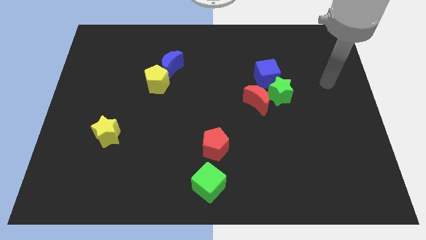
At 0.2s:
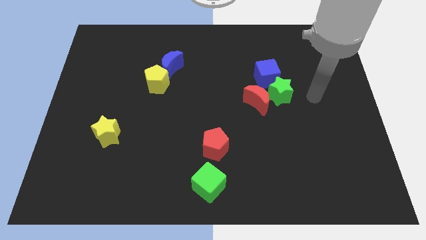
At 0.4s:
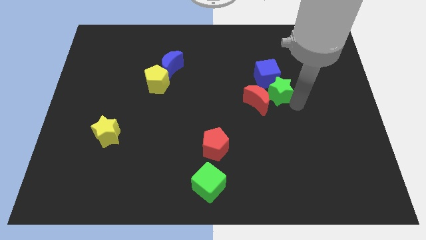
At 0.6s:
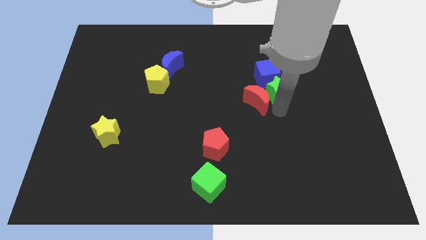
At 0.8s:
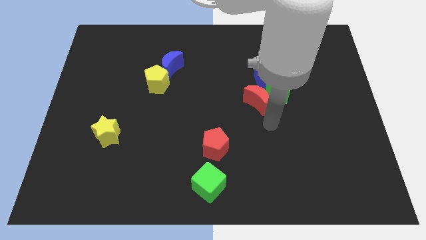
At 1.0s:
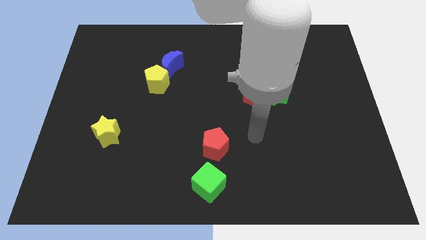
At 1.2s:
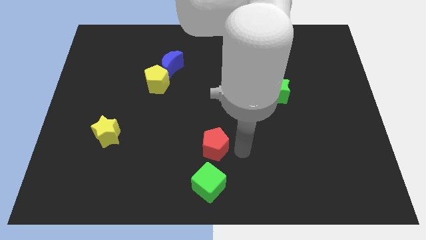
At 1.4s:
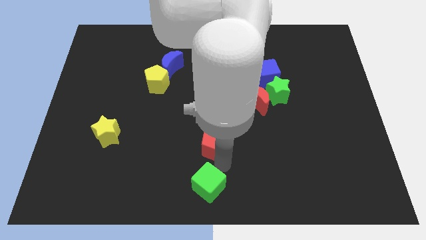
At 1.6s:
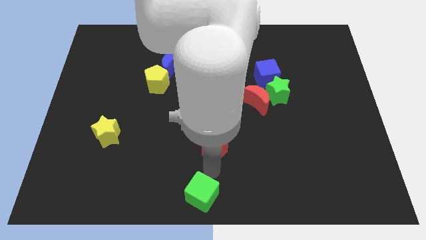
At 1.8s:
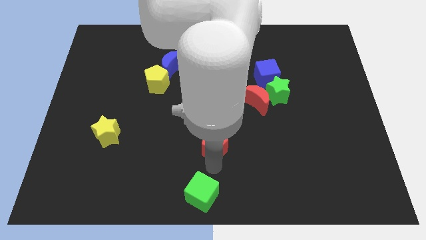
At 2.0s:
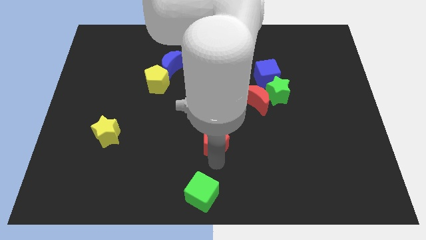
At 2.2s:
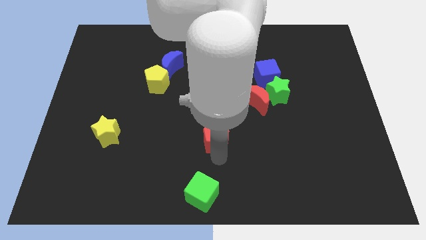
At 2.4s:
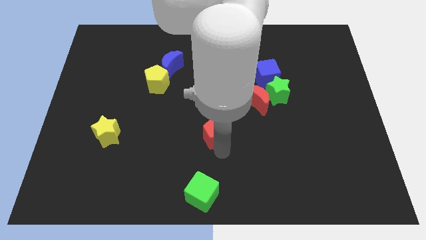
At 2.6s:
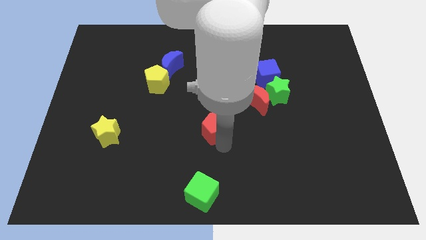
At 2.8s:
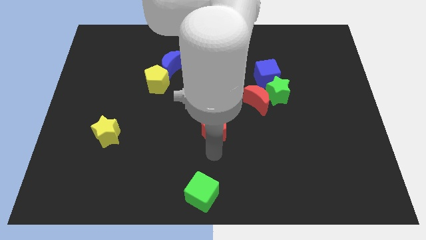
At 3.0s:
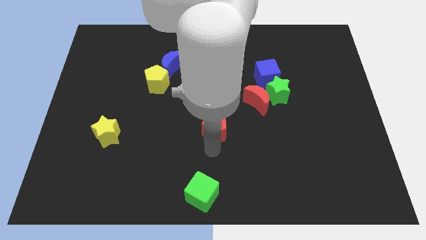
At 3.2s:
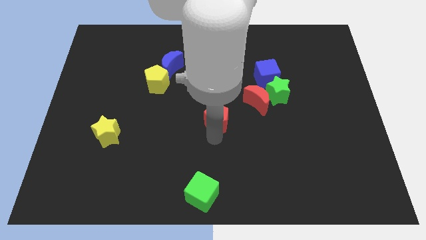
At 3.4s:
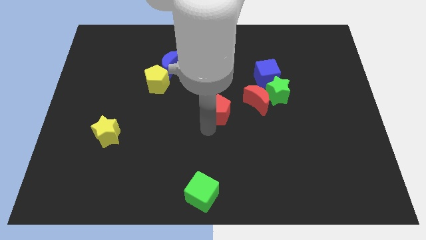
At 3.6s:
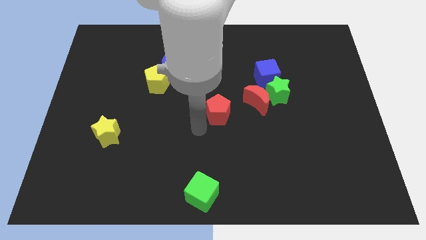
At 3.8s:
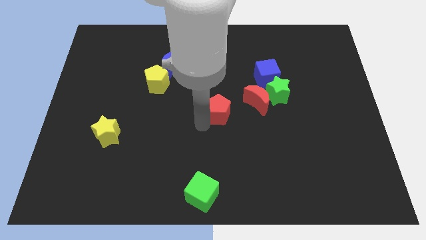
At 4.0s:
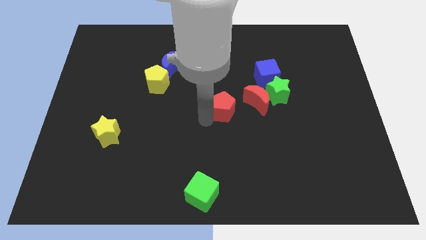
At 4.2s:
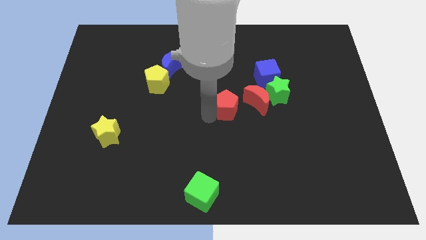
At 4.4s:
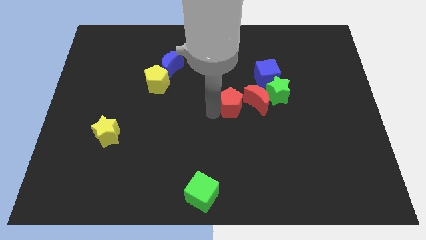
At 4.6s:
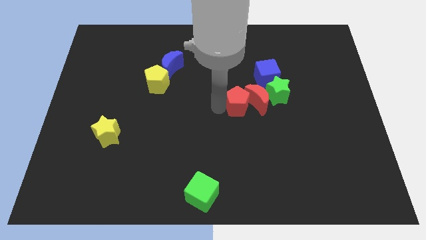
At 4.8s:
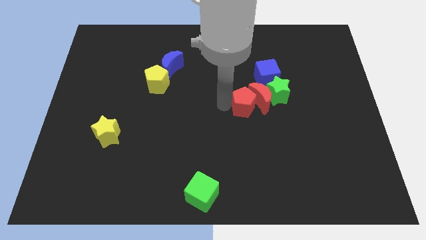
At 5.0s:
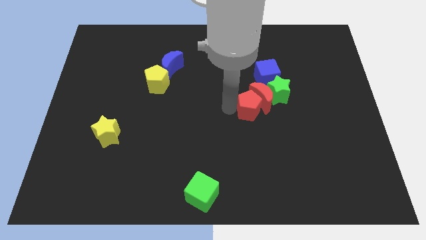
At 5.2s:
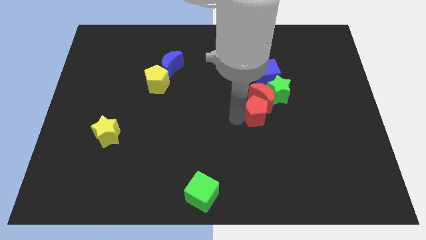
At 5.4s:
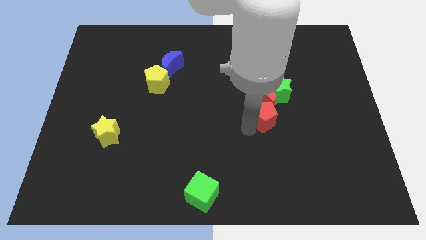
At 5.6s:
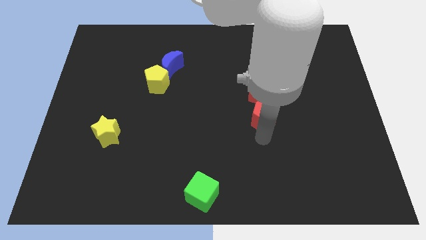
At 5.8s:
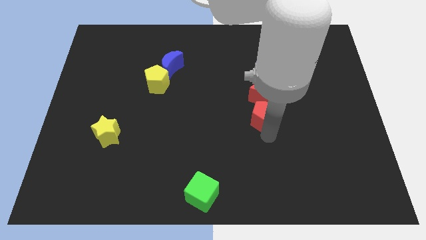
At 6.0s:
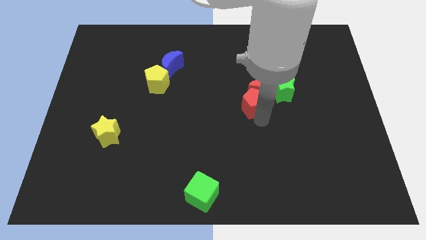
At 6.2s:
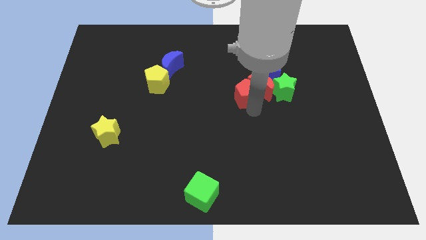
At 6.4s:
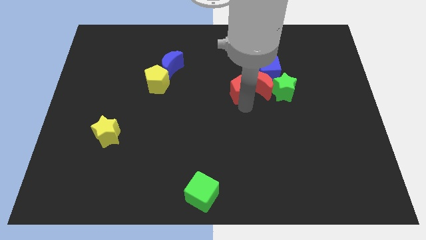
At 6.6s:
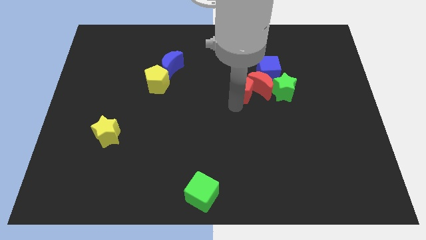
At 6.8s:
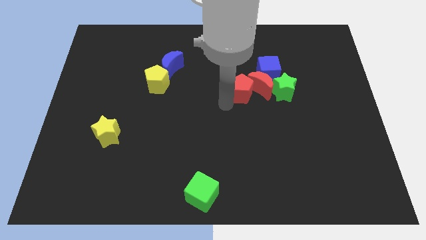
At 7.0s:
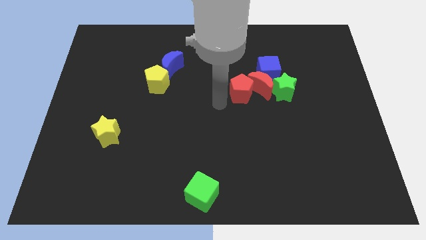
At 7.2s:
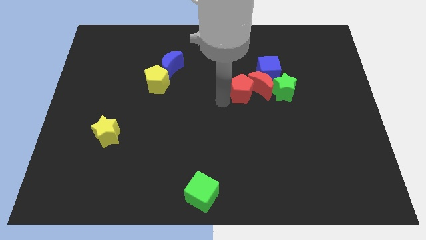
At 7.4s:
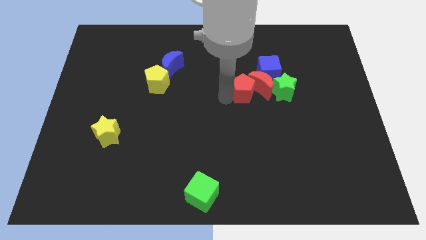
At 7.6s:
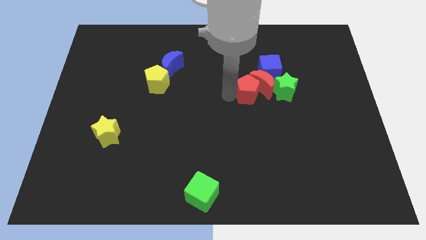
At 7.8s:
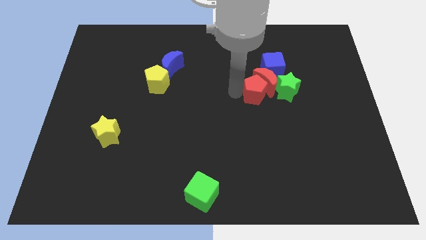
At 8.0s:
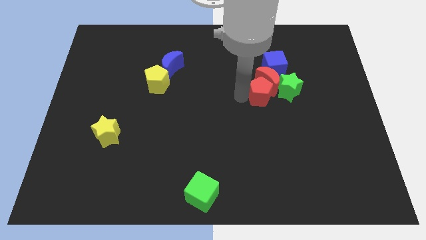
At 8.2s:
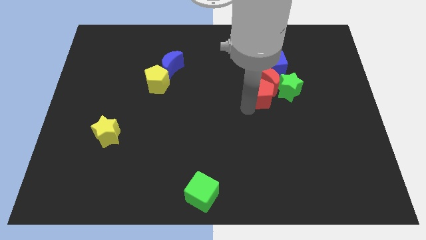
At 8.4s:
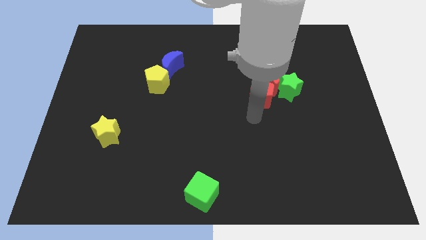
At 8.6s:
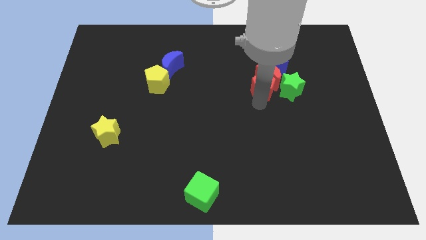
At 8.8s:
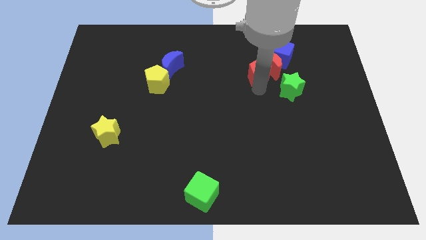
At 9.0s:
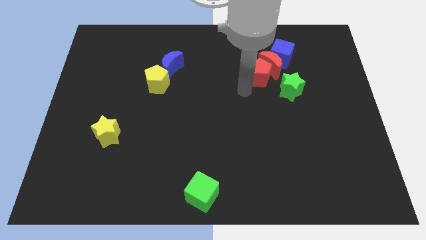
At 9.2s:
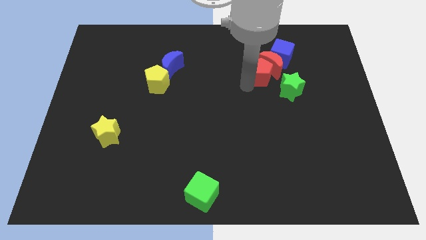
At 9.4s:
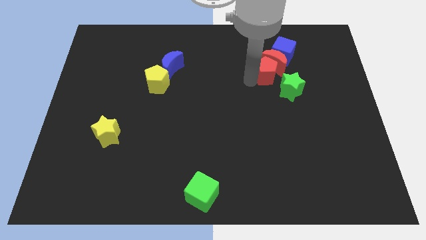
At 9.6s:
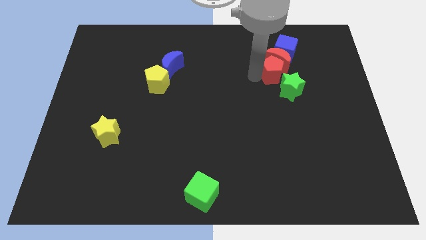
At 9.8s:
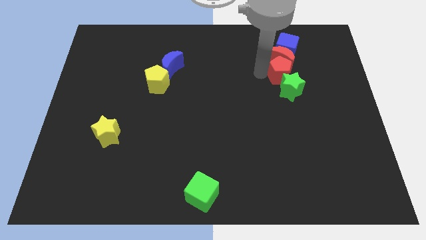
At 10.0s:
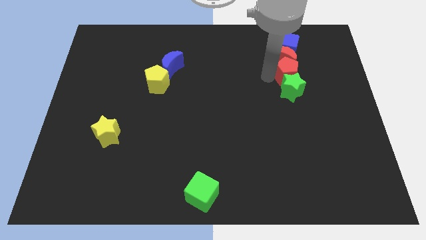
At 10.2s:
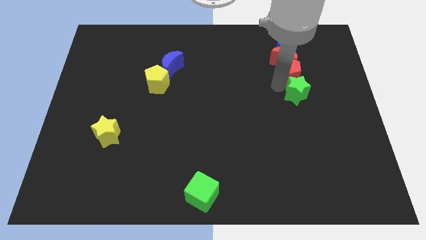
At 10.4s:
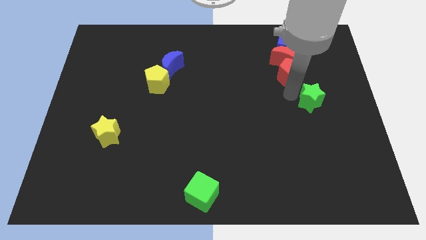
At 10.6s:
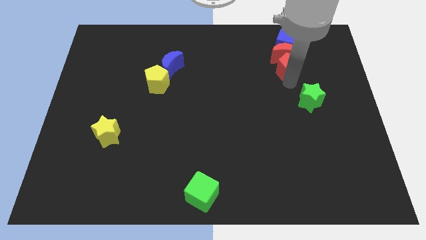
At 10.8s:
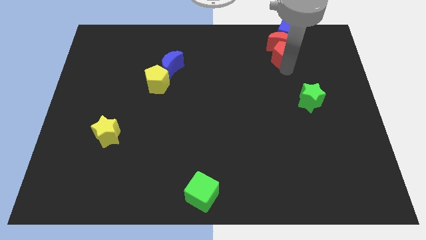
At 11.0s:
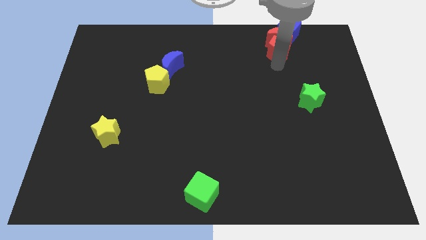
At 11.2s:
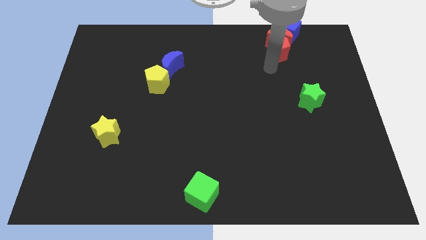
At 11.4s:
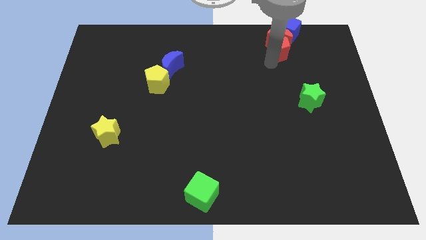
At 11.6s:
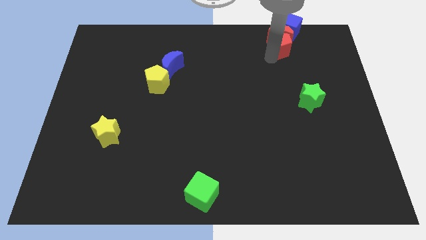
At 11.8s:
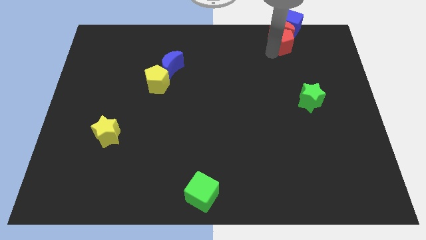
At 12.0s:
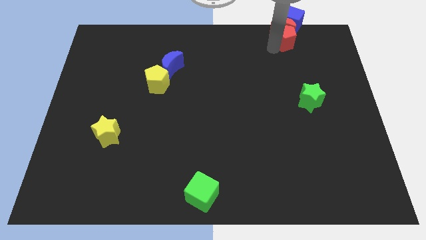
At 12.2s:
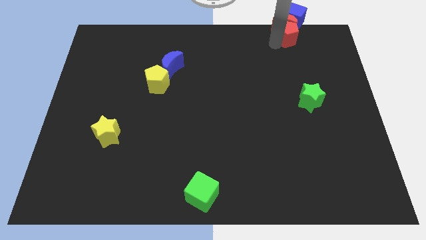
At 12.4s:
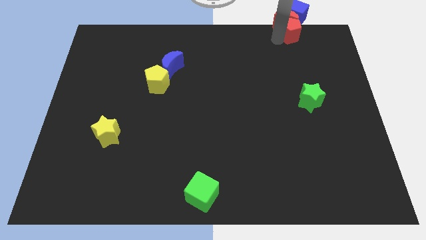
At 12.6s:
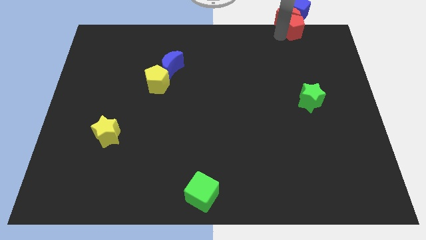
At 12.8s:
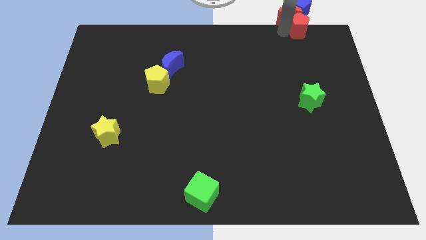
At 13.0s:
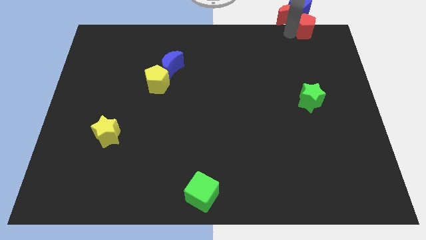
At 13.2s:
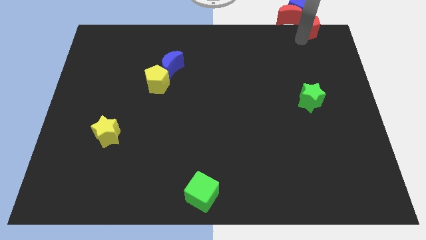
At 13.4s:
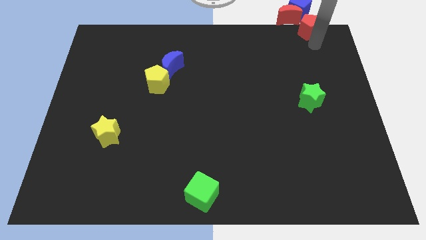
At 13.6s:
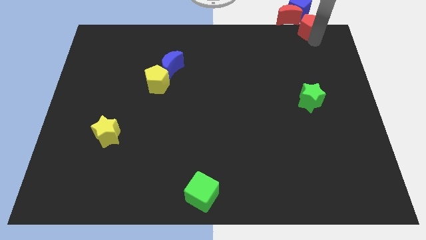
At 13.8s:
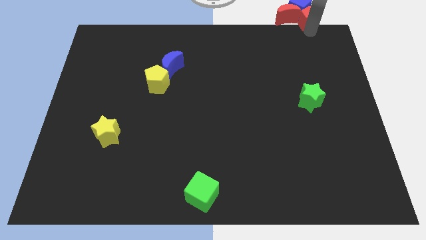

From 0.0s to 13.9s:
move the red pentagon next to the blue cube

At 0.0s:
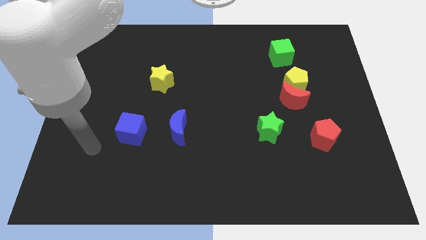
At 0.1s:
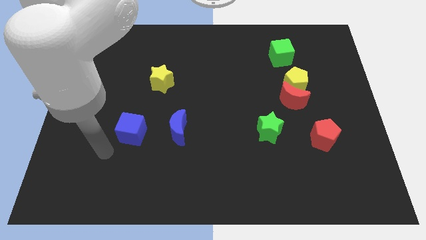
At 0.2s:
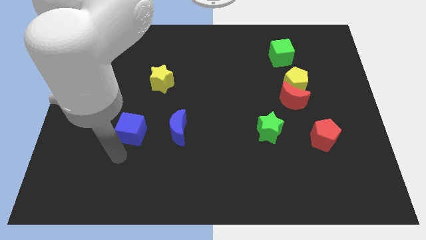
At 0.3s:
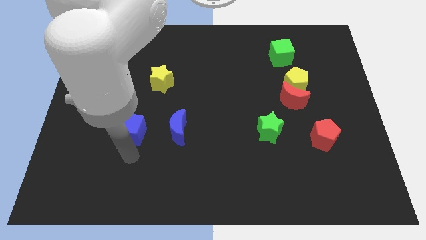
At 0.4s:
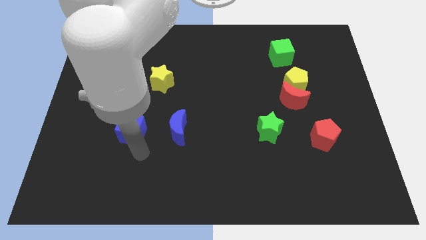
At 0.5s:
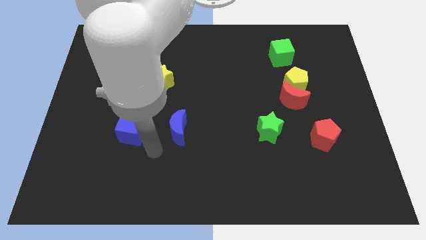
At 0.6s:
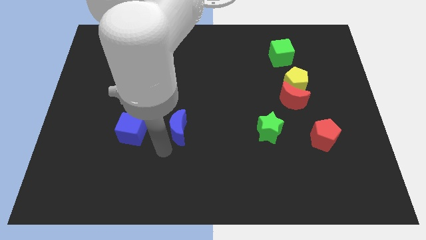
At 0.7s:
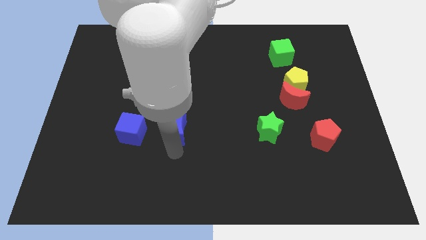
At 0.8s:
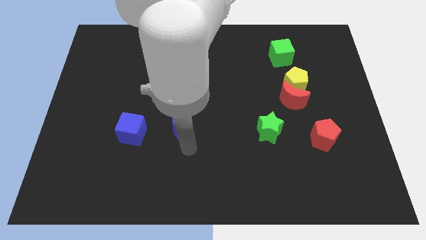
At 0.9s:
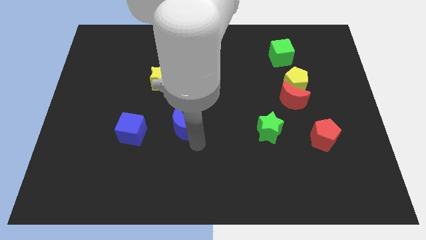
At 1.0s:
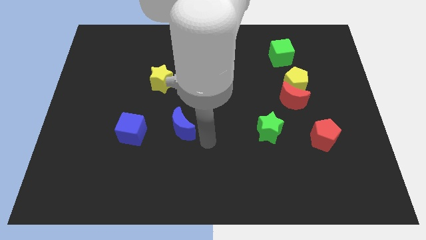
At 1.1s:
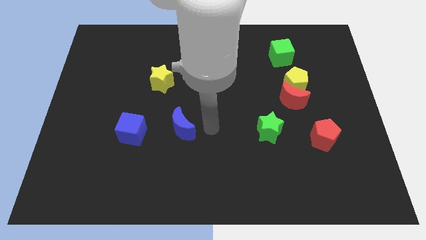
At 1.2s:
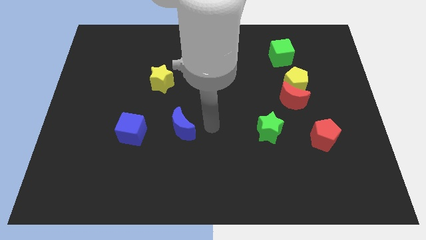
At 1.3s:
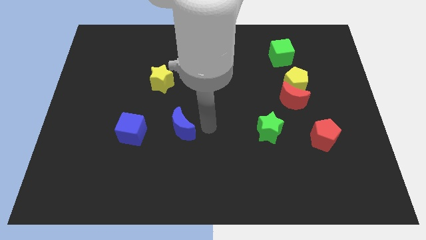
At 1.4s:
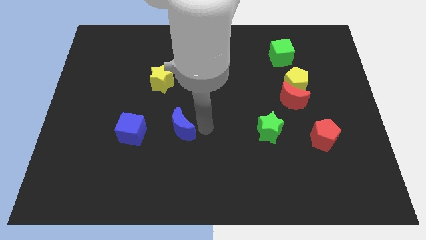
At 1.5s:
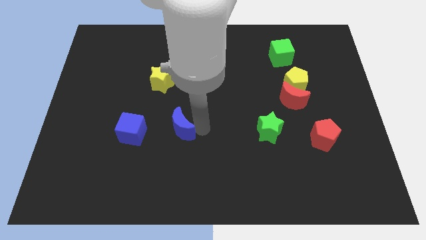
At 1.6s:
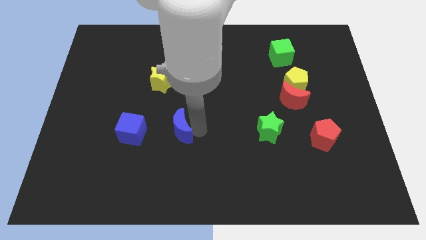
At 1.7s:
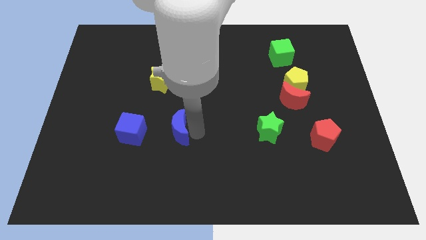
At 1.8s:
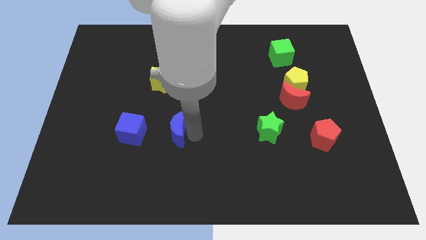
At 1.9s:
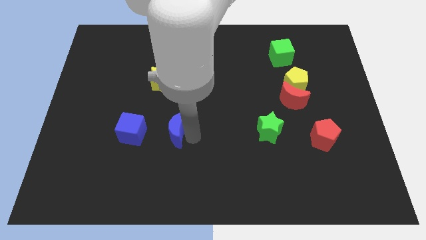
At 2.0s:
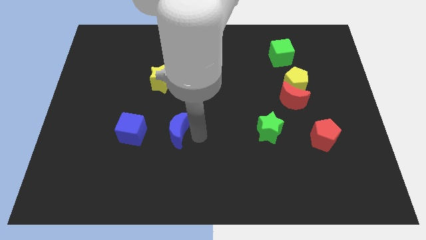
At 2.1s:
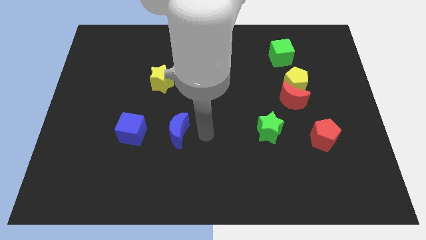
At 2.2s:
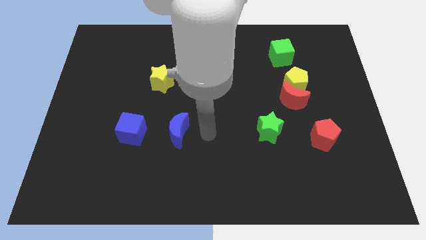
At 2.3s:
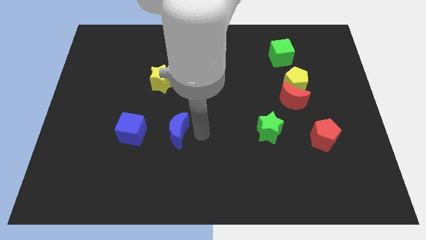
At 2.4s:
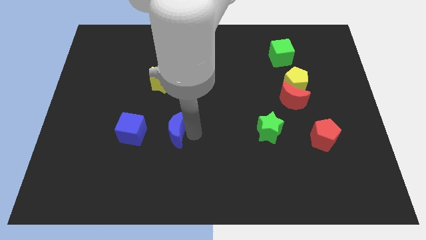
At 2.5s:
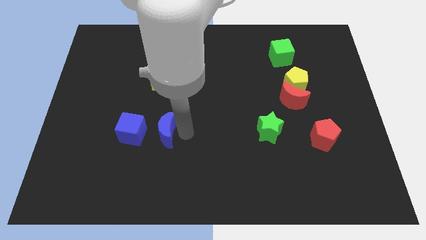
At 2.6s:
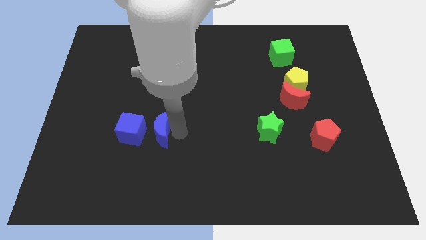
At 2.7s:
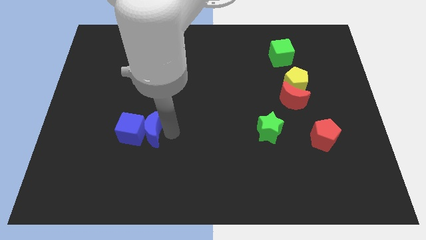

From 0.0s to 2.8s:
move the blue moon towards the blue cube
